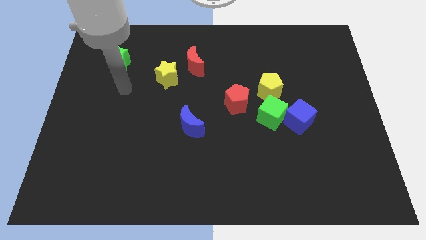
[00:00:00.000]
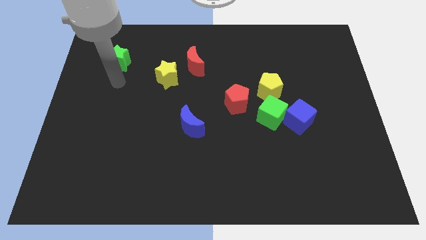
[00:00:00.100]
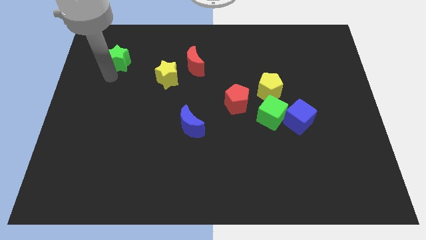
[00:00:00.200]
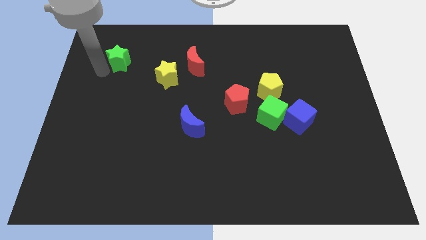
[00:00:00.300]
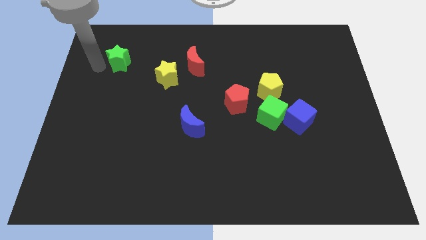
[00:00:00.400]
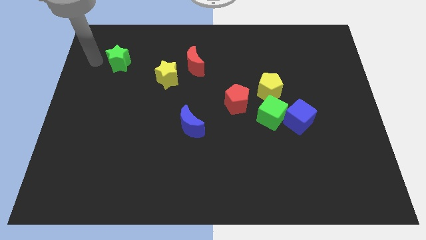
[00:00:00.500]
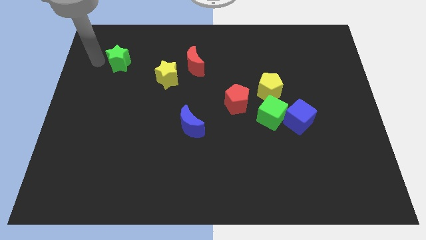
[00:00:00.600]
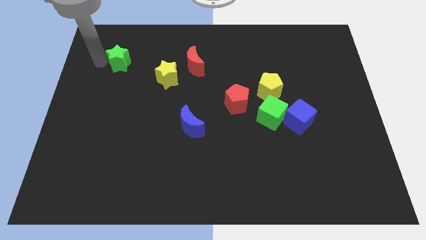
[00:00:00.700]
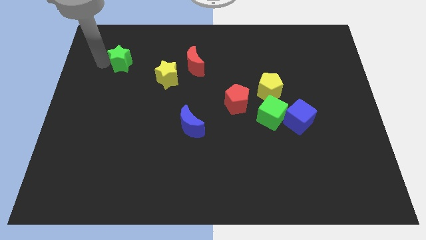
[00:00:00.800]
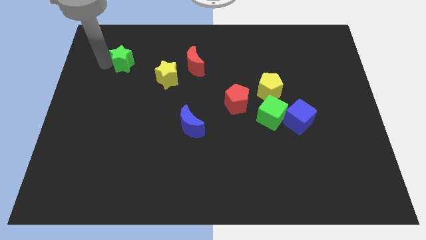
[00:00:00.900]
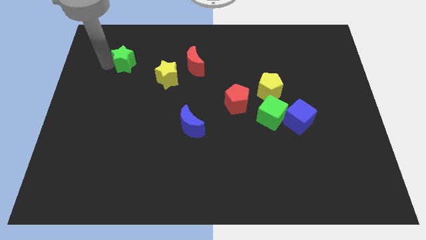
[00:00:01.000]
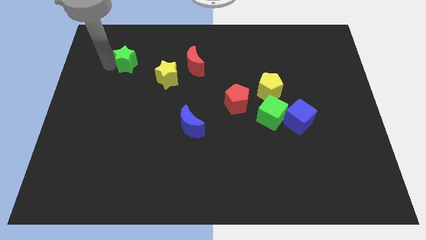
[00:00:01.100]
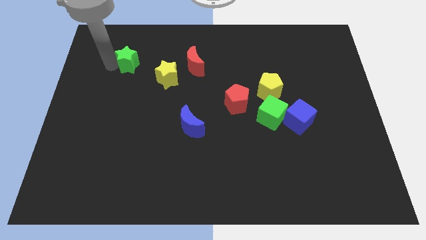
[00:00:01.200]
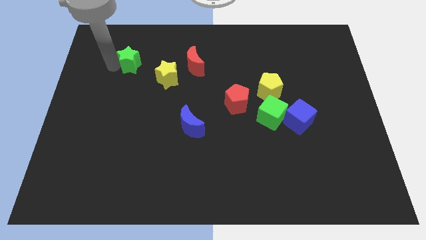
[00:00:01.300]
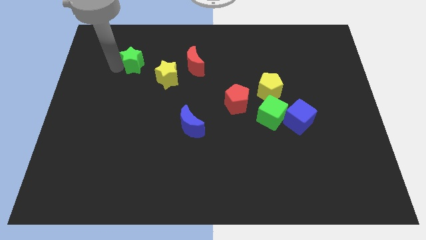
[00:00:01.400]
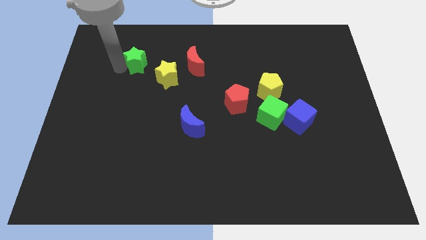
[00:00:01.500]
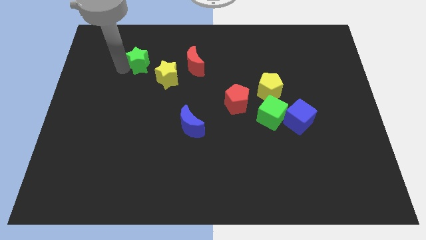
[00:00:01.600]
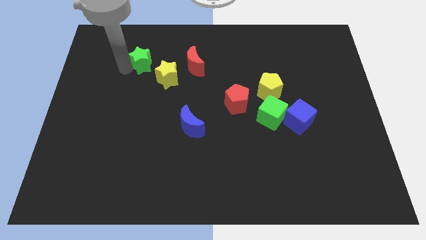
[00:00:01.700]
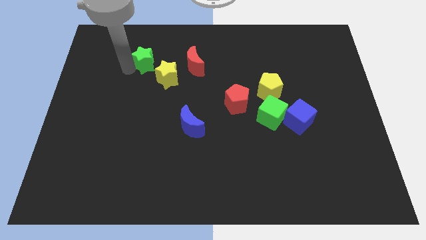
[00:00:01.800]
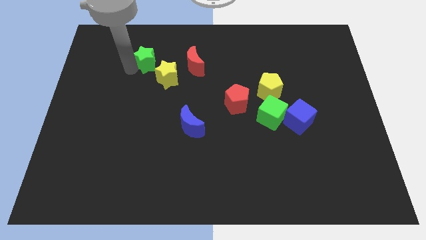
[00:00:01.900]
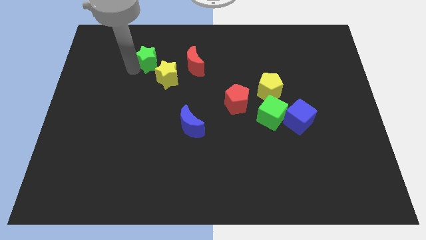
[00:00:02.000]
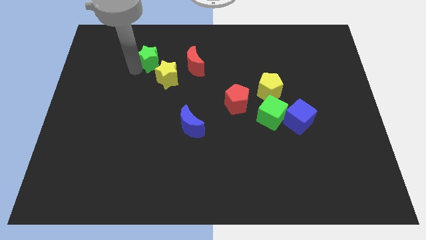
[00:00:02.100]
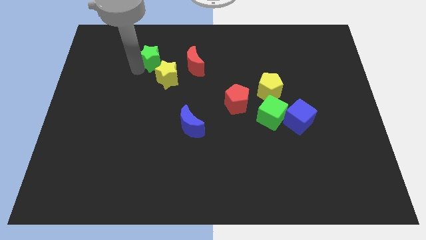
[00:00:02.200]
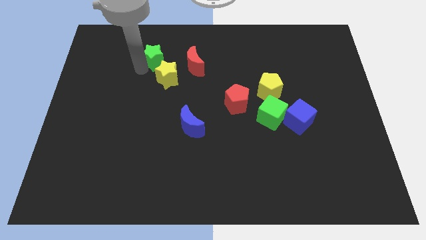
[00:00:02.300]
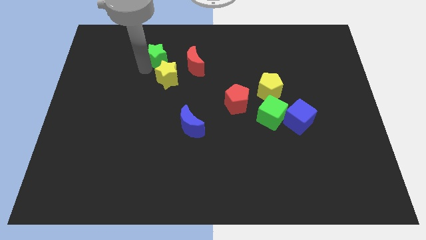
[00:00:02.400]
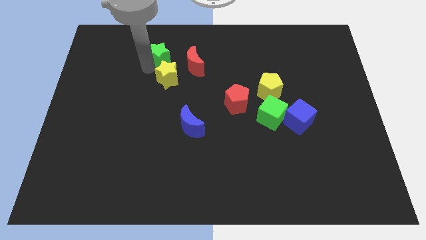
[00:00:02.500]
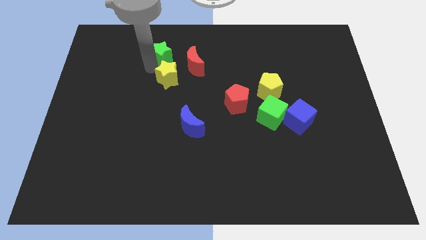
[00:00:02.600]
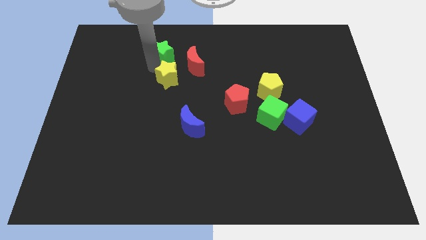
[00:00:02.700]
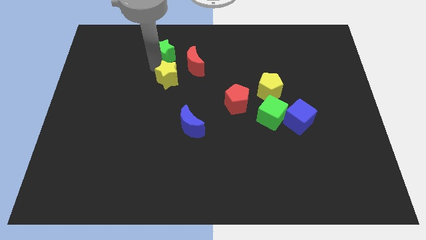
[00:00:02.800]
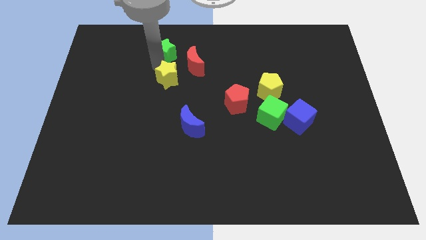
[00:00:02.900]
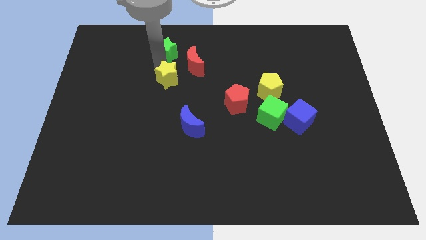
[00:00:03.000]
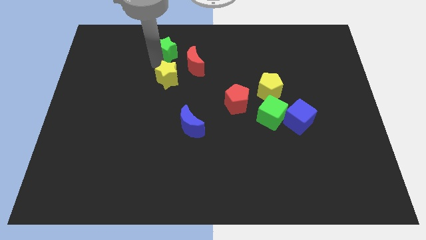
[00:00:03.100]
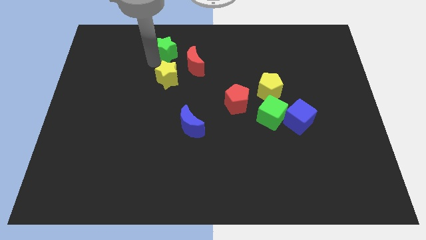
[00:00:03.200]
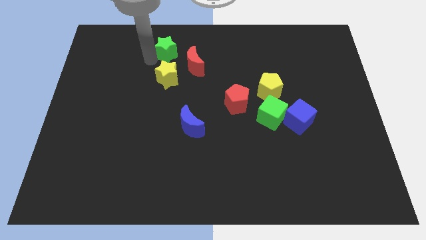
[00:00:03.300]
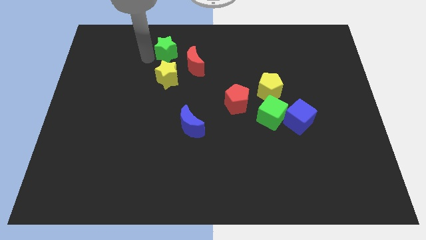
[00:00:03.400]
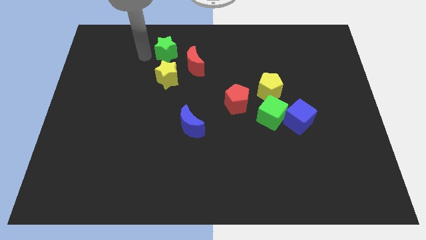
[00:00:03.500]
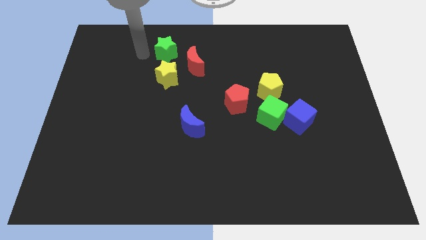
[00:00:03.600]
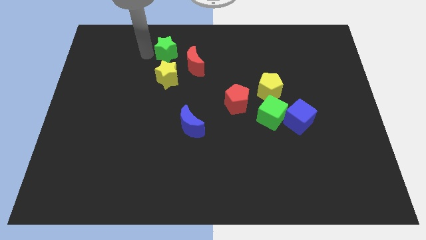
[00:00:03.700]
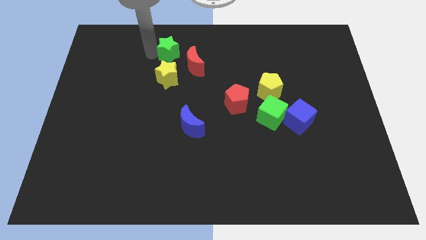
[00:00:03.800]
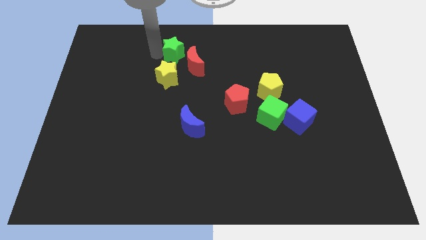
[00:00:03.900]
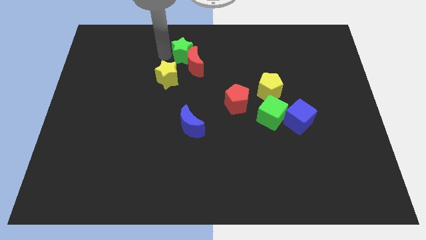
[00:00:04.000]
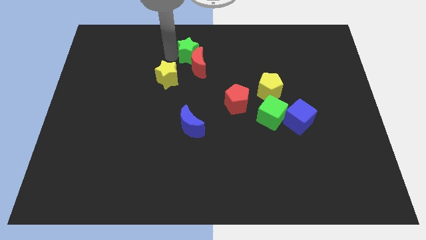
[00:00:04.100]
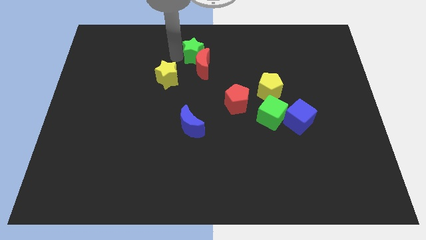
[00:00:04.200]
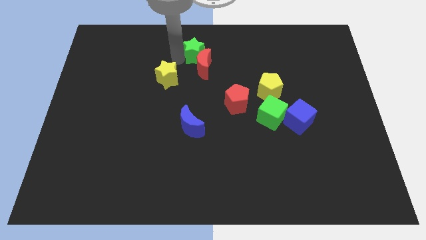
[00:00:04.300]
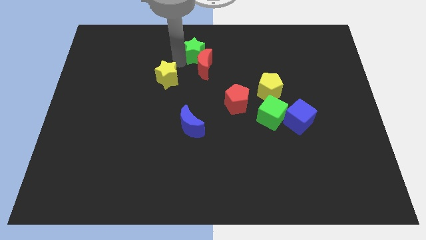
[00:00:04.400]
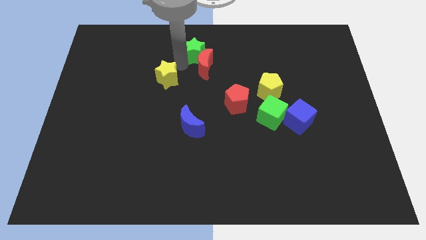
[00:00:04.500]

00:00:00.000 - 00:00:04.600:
push the green star to the right

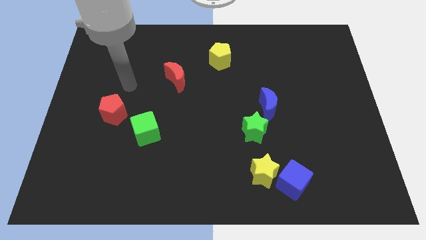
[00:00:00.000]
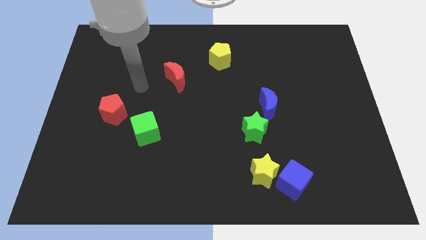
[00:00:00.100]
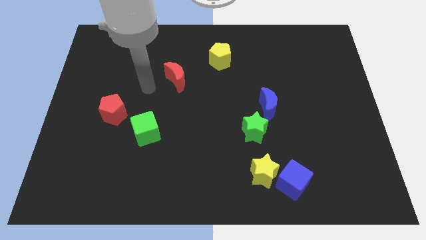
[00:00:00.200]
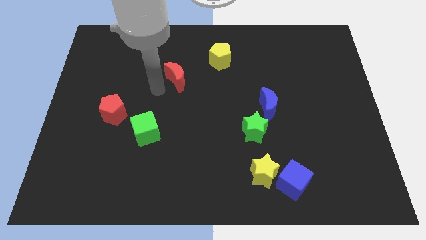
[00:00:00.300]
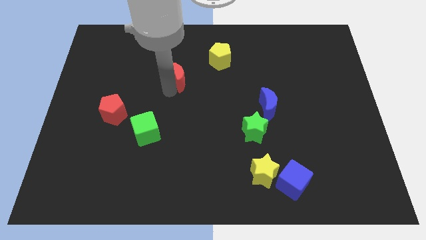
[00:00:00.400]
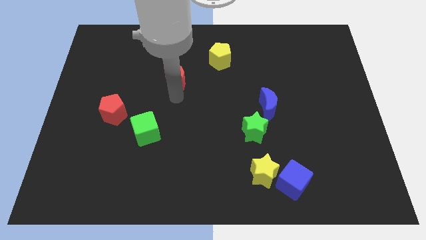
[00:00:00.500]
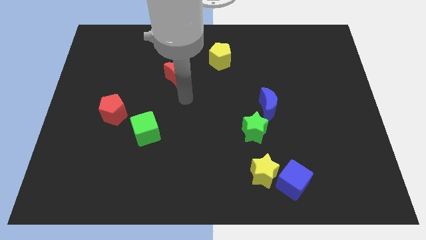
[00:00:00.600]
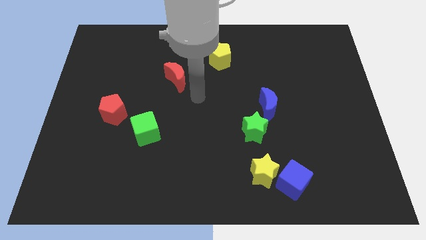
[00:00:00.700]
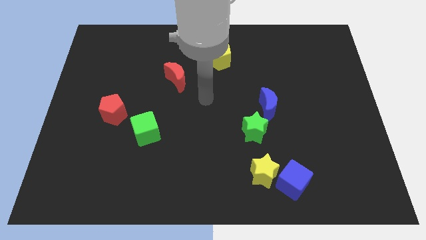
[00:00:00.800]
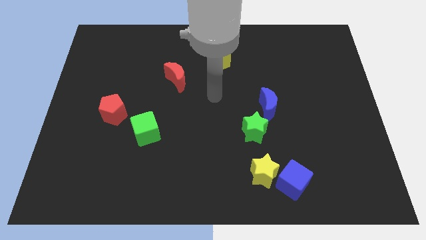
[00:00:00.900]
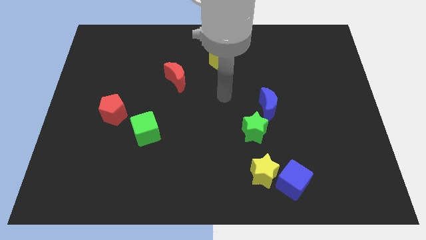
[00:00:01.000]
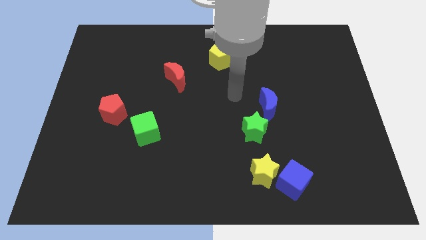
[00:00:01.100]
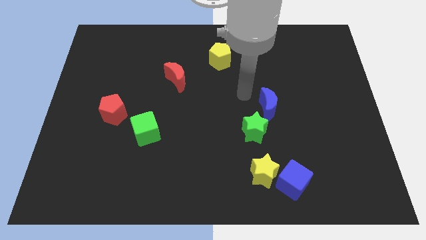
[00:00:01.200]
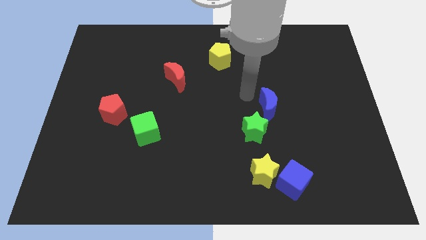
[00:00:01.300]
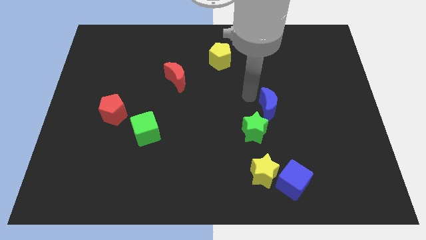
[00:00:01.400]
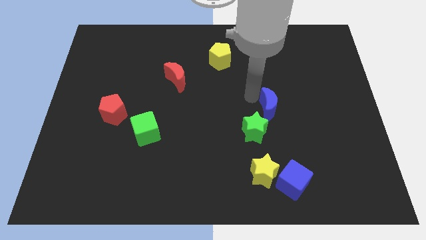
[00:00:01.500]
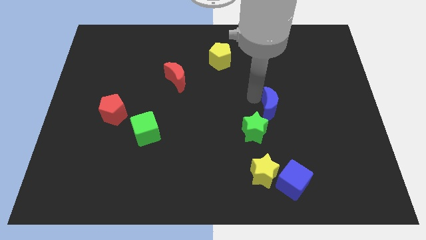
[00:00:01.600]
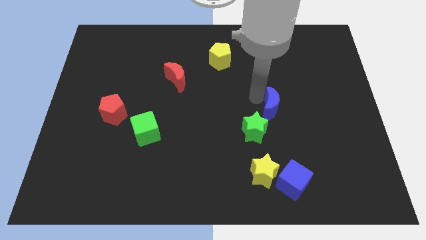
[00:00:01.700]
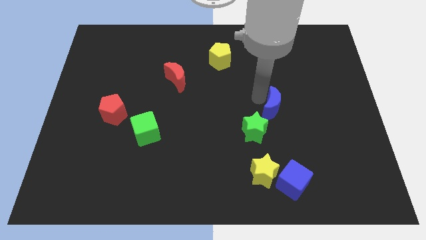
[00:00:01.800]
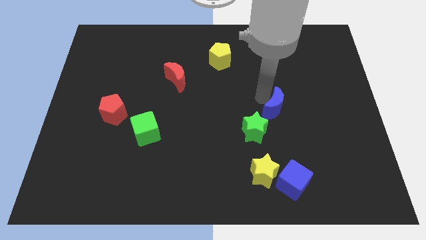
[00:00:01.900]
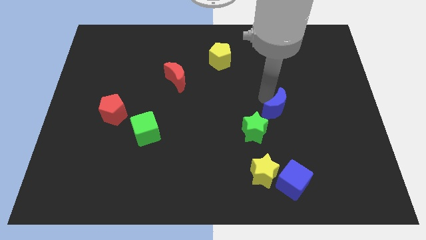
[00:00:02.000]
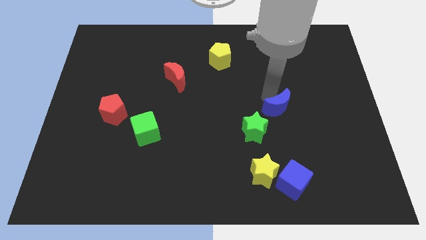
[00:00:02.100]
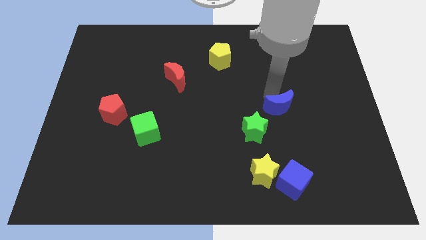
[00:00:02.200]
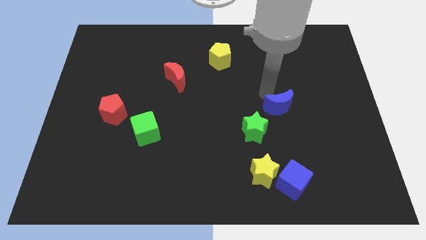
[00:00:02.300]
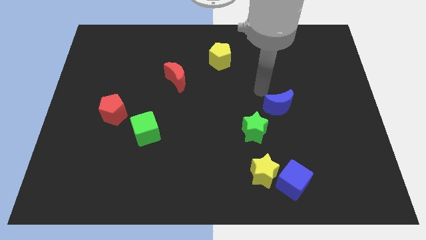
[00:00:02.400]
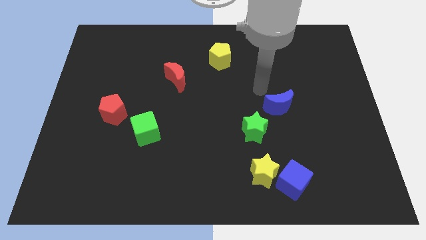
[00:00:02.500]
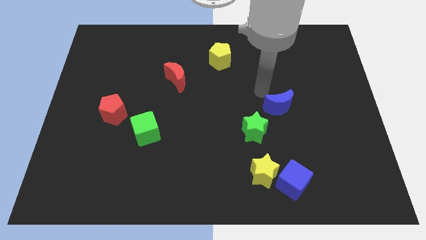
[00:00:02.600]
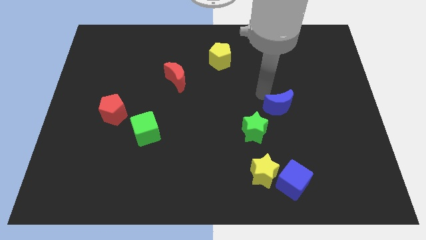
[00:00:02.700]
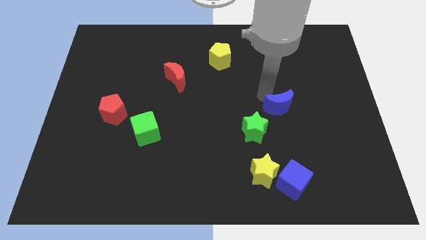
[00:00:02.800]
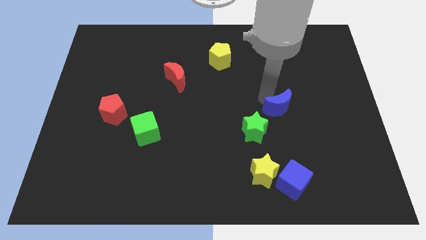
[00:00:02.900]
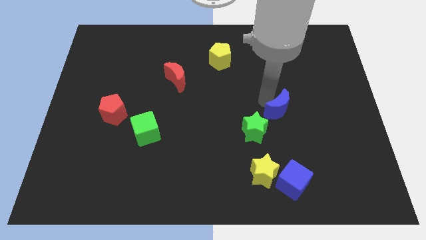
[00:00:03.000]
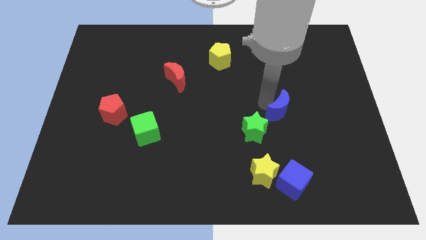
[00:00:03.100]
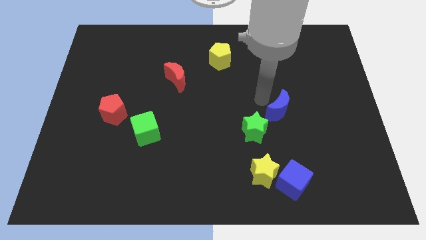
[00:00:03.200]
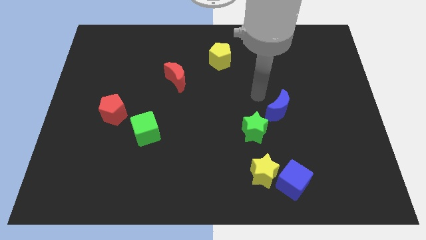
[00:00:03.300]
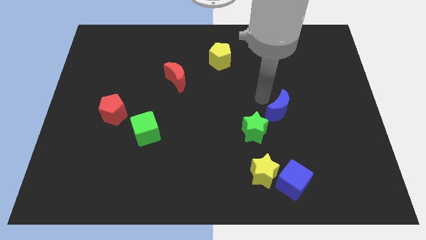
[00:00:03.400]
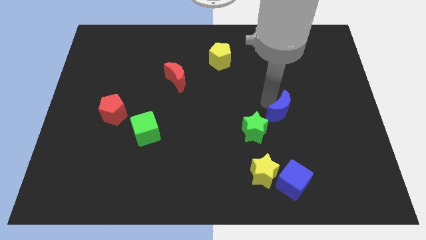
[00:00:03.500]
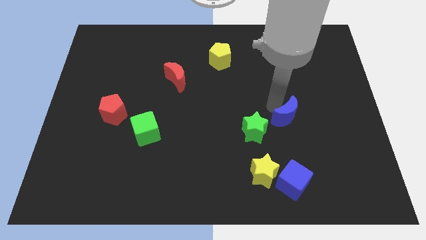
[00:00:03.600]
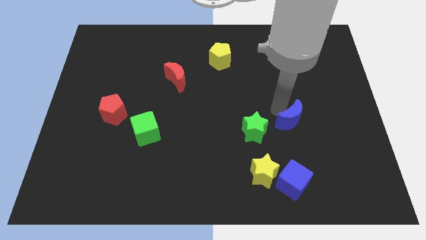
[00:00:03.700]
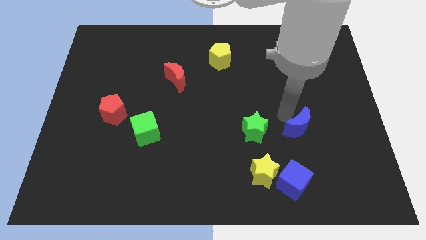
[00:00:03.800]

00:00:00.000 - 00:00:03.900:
slightly slide the blue moon down and to the right
